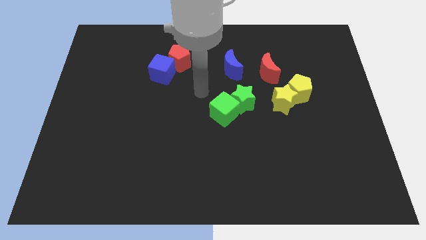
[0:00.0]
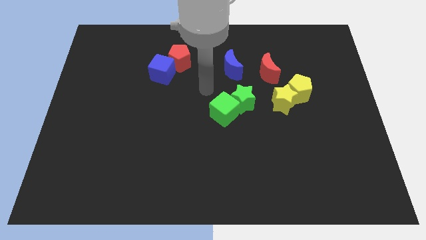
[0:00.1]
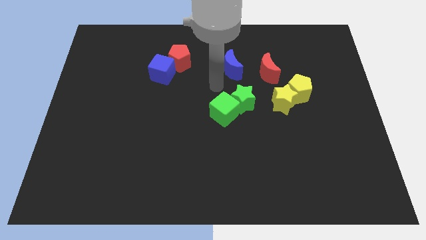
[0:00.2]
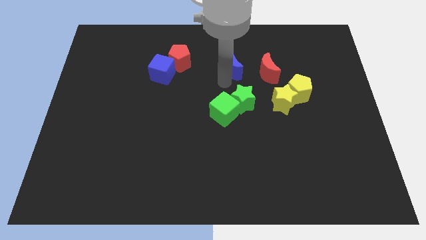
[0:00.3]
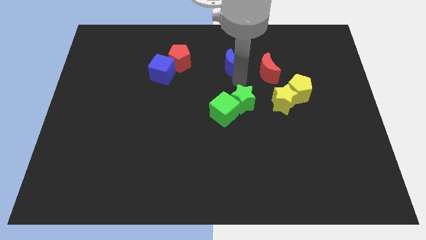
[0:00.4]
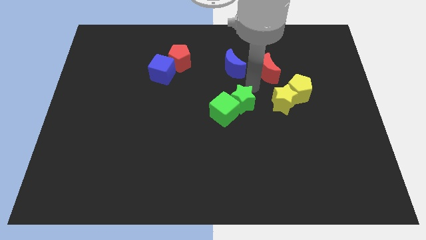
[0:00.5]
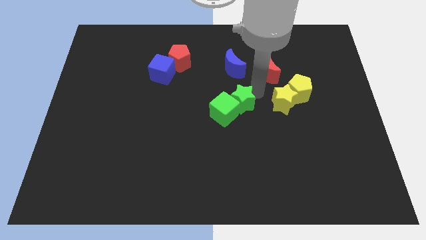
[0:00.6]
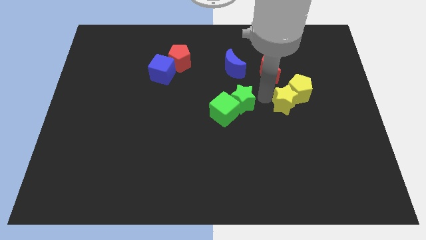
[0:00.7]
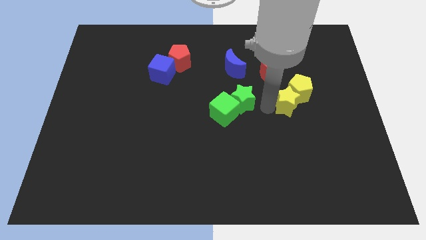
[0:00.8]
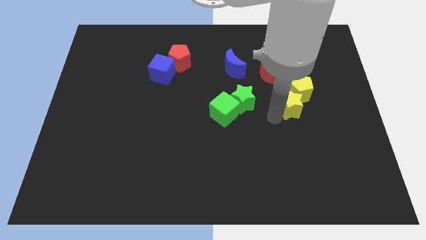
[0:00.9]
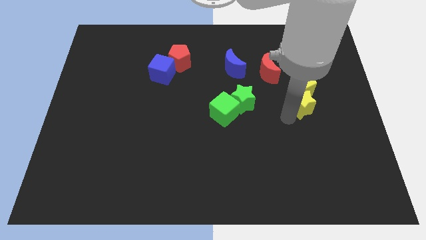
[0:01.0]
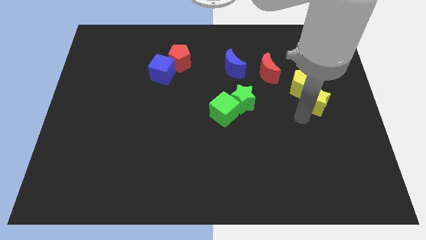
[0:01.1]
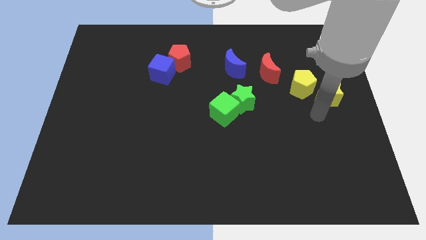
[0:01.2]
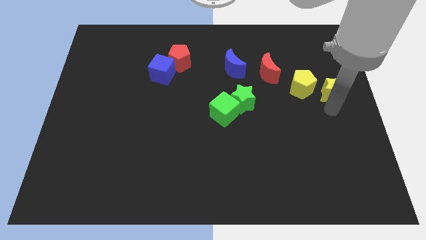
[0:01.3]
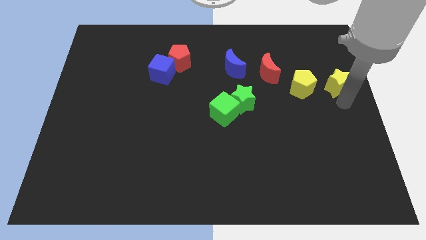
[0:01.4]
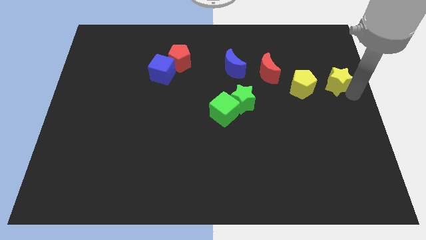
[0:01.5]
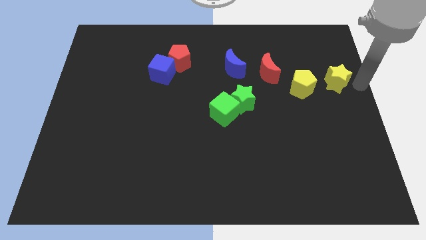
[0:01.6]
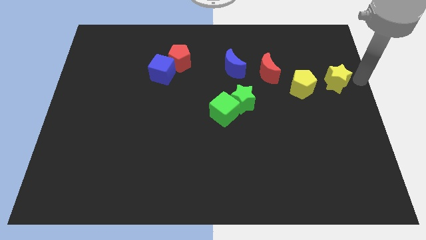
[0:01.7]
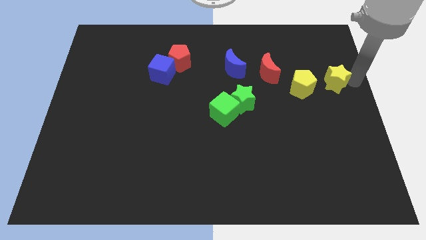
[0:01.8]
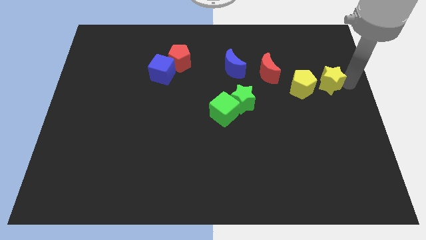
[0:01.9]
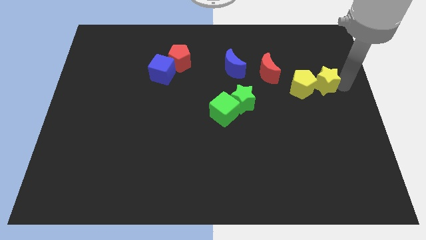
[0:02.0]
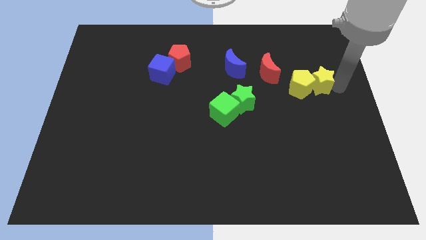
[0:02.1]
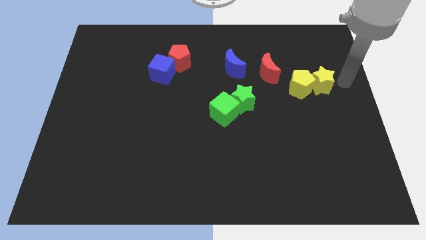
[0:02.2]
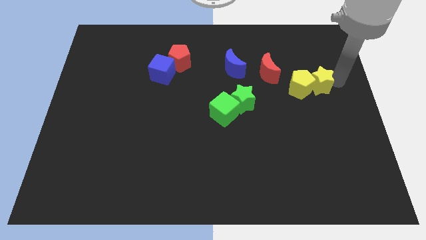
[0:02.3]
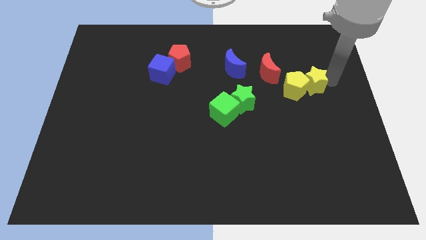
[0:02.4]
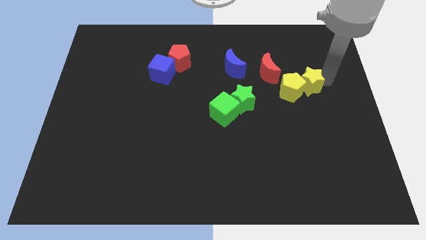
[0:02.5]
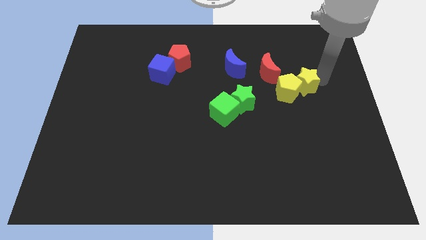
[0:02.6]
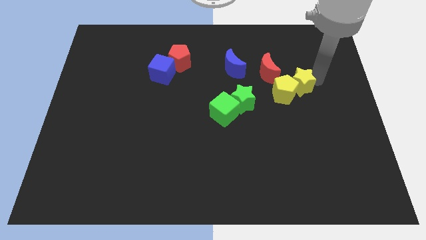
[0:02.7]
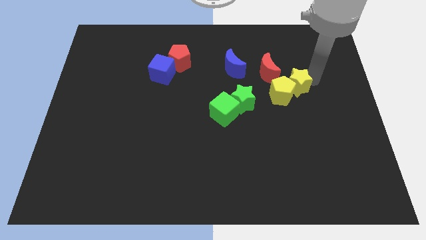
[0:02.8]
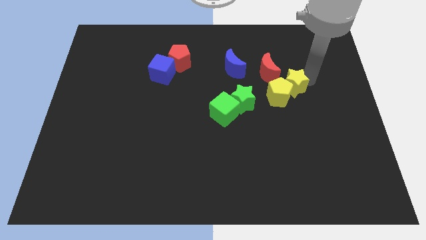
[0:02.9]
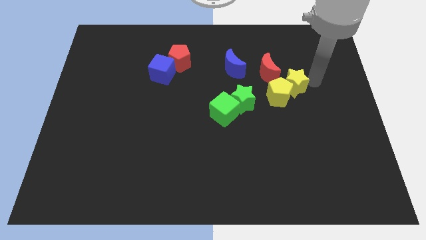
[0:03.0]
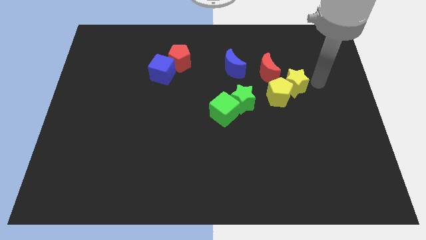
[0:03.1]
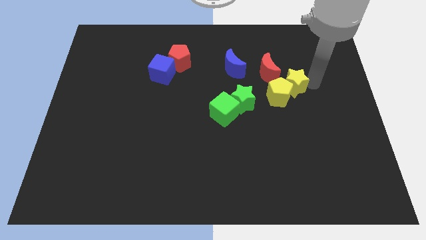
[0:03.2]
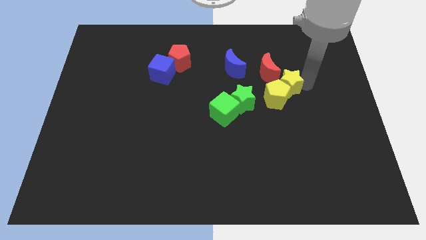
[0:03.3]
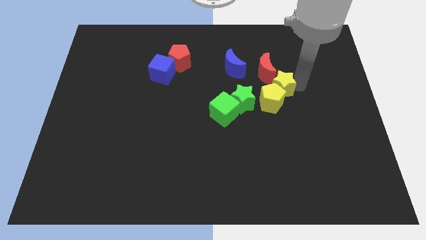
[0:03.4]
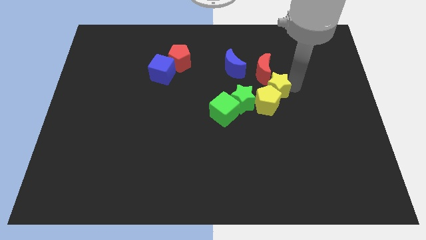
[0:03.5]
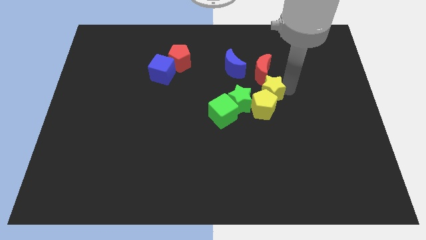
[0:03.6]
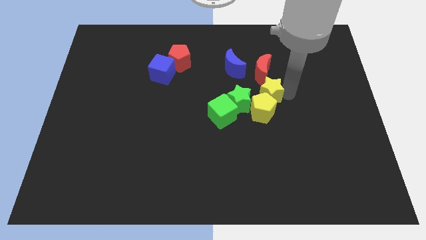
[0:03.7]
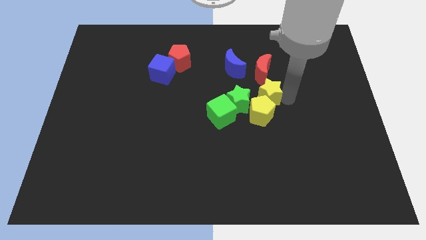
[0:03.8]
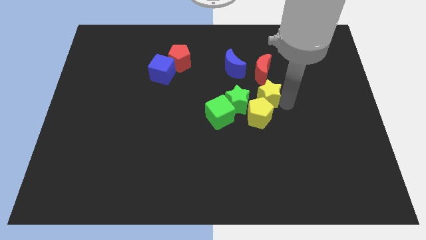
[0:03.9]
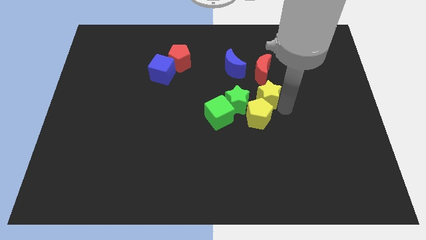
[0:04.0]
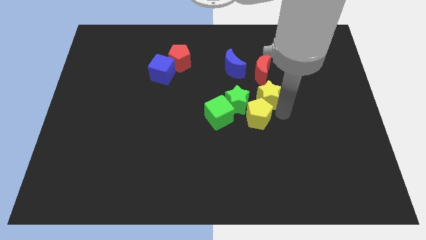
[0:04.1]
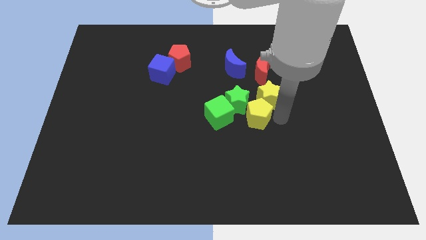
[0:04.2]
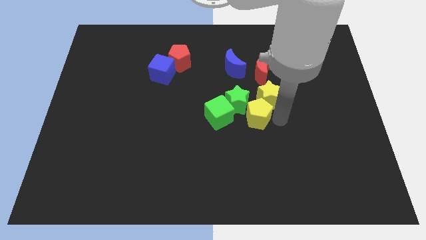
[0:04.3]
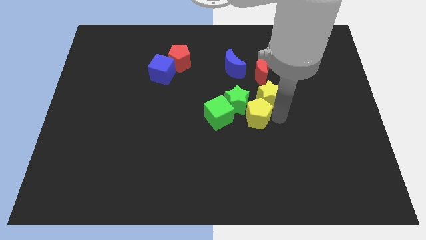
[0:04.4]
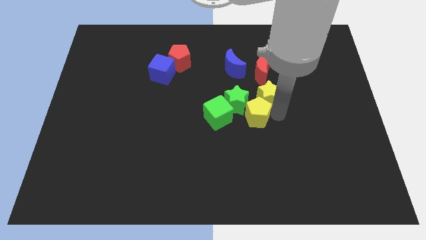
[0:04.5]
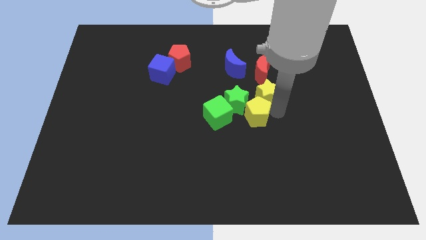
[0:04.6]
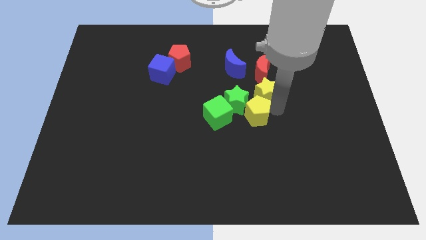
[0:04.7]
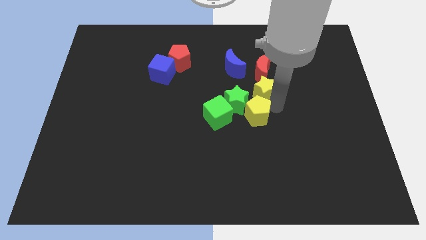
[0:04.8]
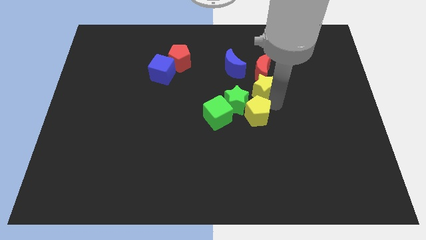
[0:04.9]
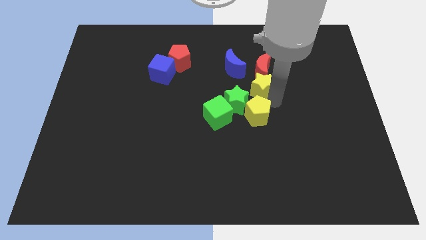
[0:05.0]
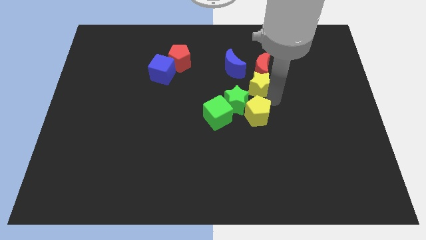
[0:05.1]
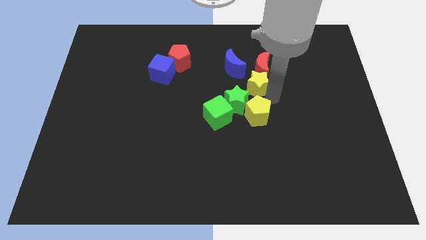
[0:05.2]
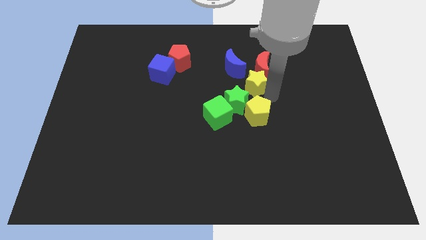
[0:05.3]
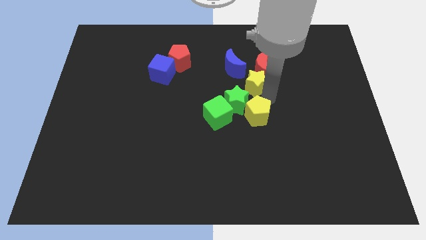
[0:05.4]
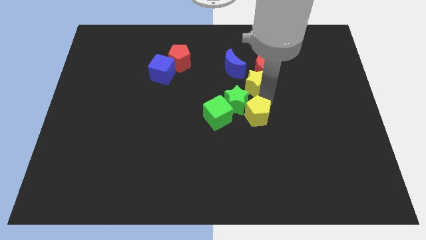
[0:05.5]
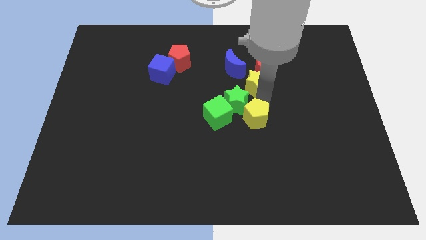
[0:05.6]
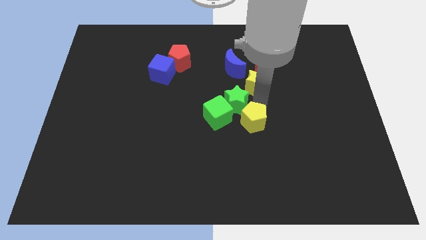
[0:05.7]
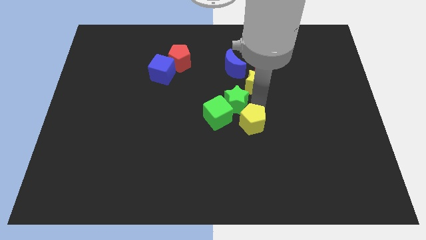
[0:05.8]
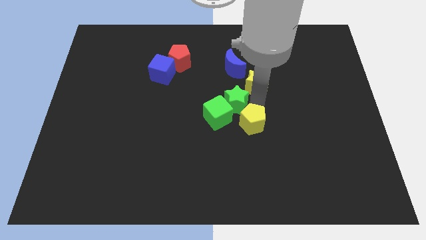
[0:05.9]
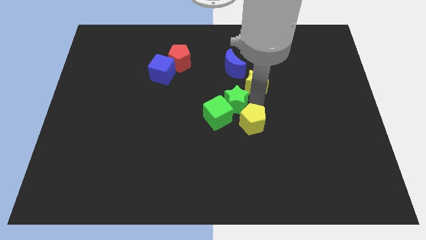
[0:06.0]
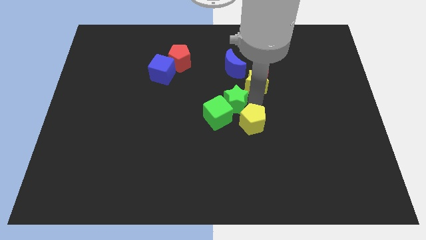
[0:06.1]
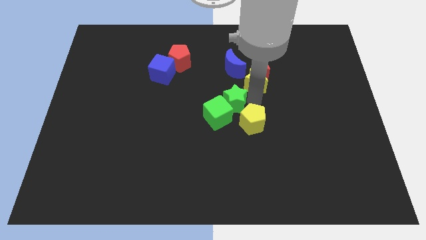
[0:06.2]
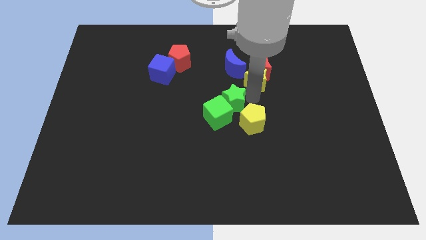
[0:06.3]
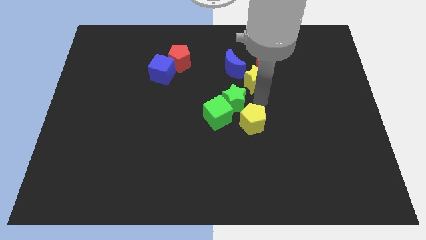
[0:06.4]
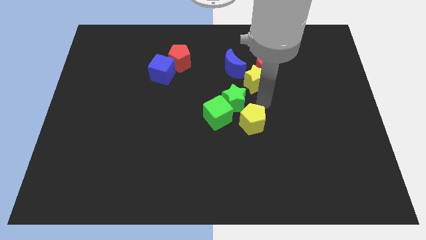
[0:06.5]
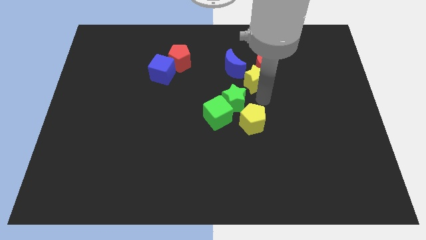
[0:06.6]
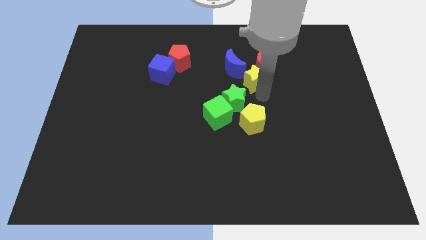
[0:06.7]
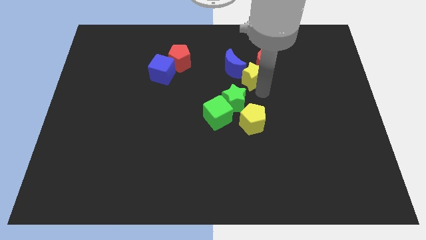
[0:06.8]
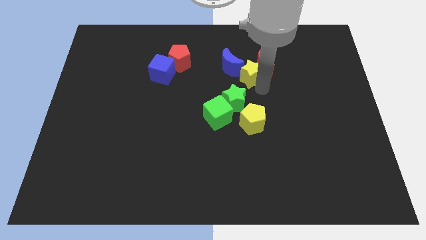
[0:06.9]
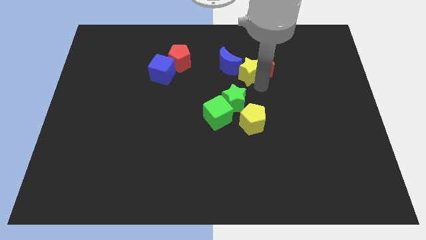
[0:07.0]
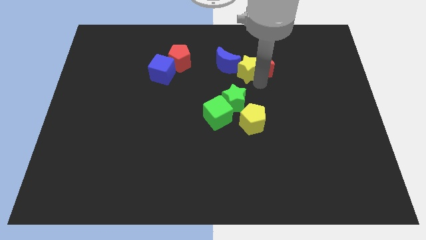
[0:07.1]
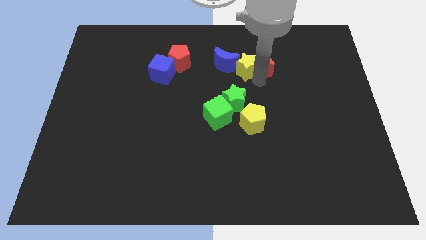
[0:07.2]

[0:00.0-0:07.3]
move the yellow star diagonally up and to the left of the red moon
